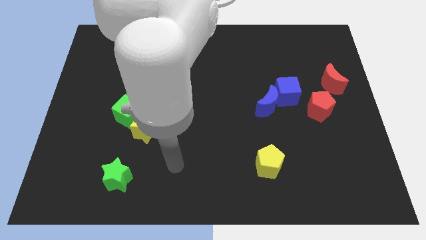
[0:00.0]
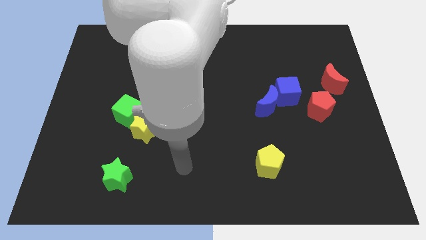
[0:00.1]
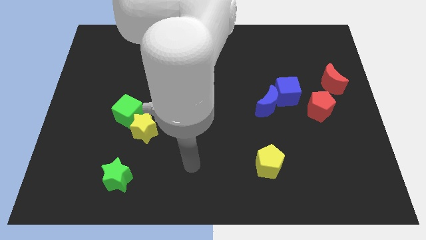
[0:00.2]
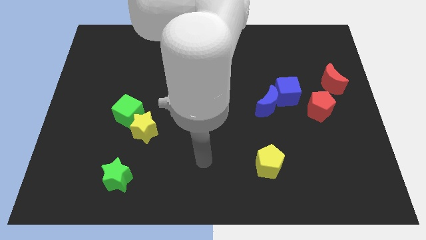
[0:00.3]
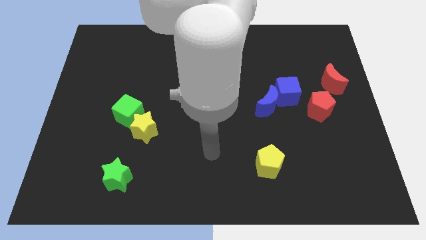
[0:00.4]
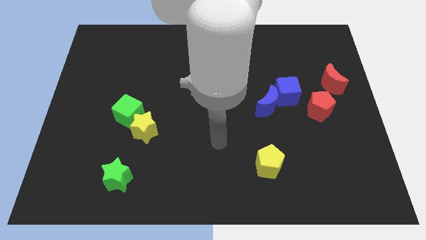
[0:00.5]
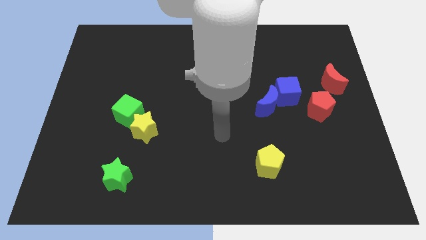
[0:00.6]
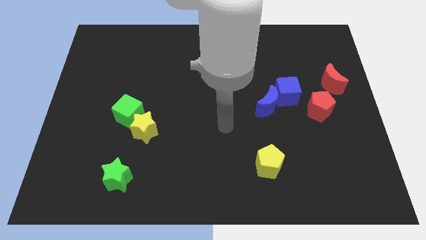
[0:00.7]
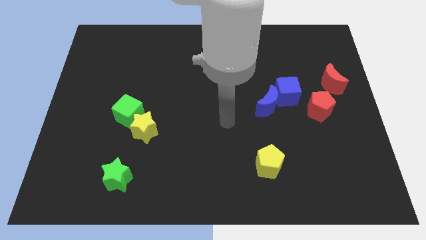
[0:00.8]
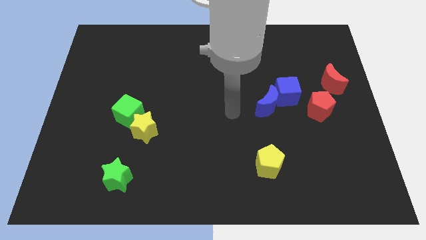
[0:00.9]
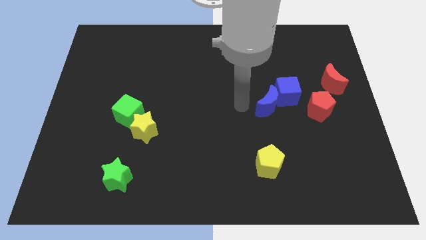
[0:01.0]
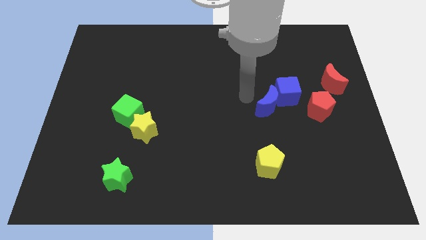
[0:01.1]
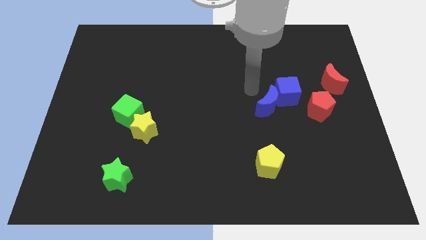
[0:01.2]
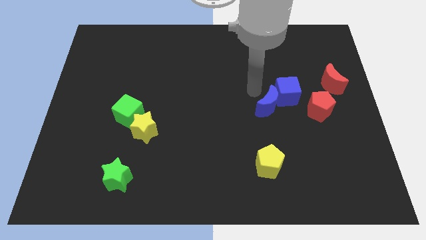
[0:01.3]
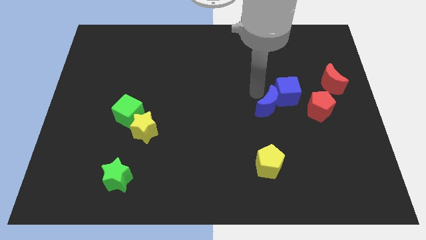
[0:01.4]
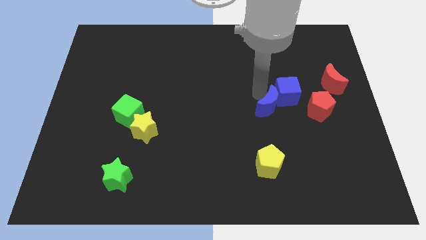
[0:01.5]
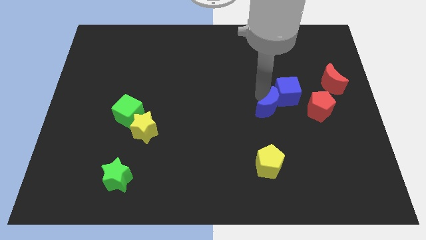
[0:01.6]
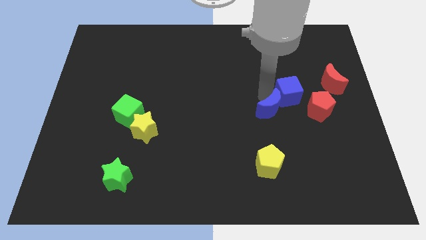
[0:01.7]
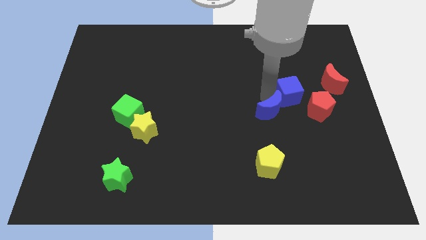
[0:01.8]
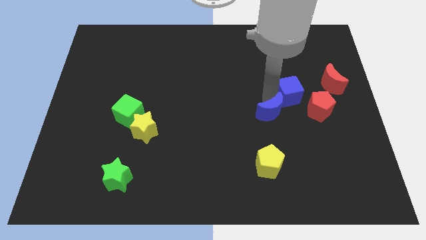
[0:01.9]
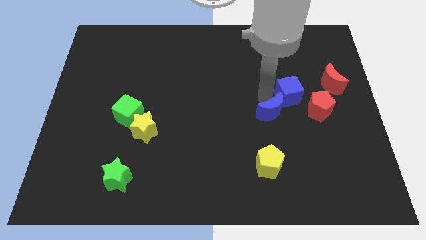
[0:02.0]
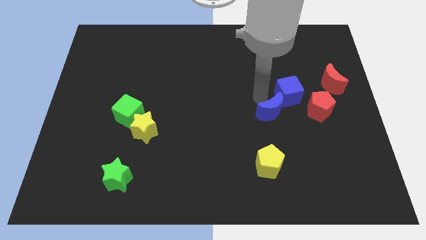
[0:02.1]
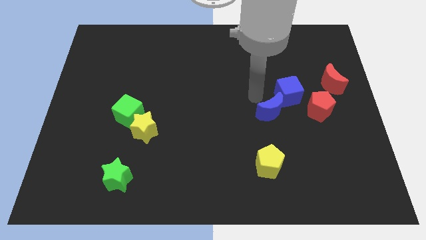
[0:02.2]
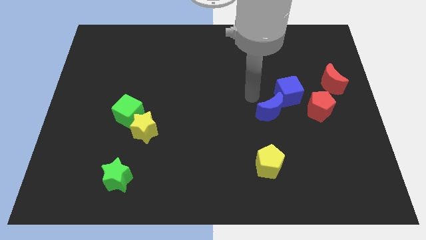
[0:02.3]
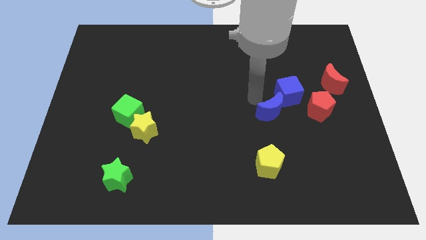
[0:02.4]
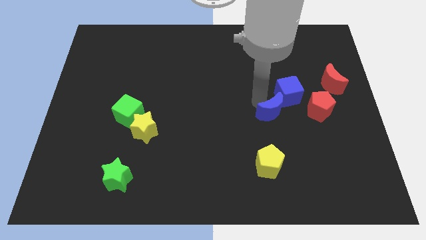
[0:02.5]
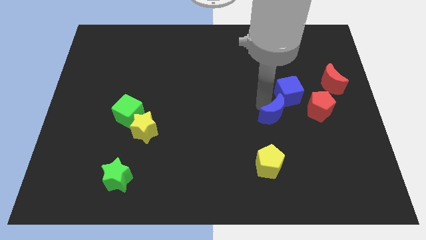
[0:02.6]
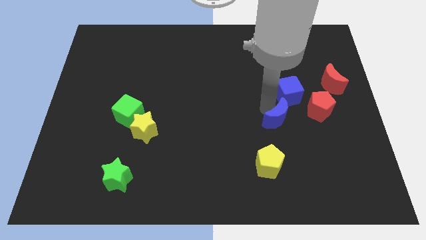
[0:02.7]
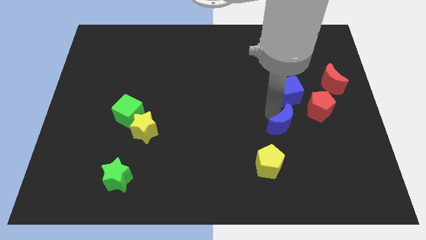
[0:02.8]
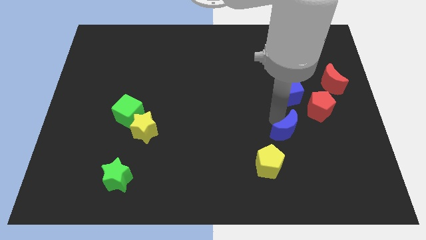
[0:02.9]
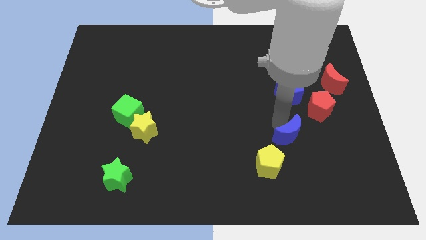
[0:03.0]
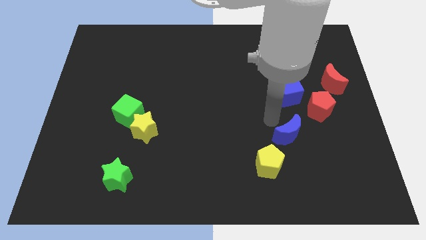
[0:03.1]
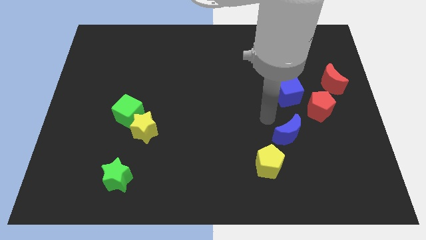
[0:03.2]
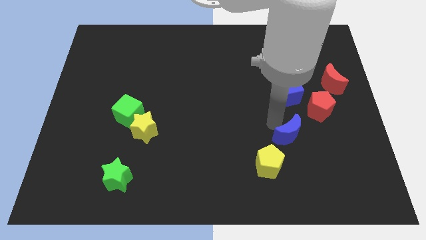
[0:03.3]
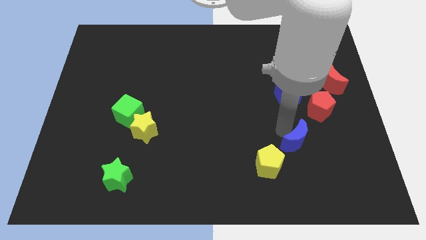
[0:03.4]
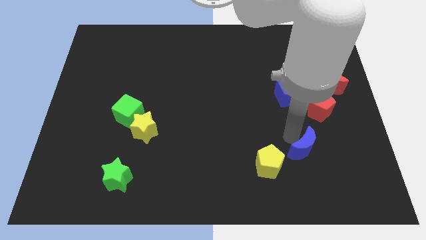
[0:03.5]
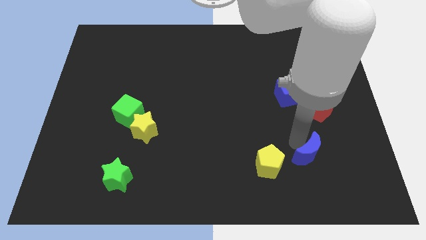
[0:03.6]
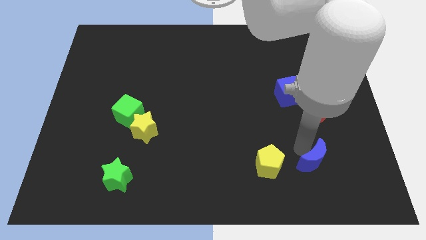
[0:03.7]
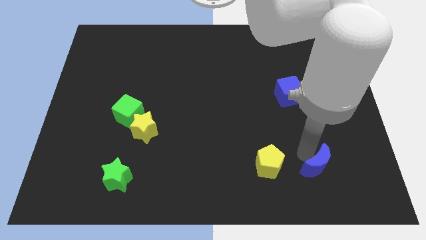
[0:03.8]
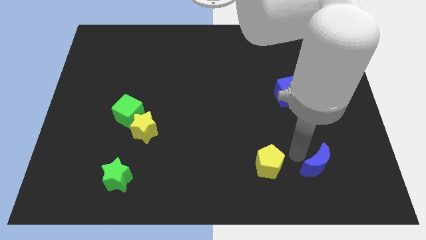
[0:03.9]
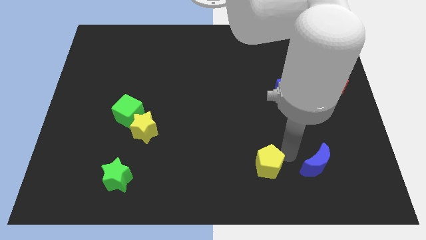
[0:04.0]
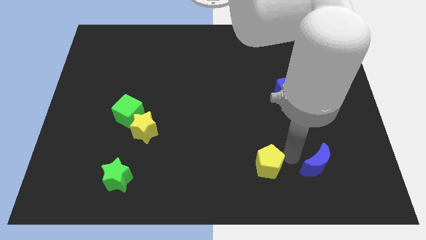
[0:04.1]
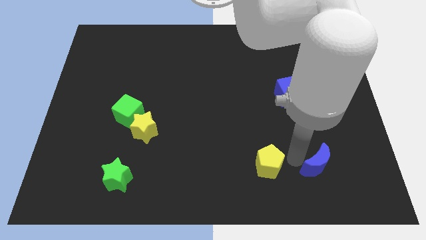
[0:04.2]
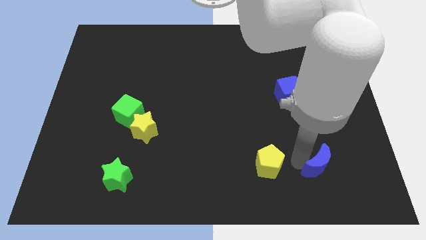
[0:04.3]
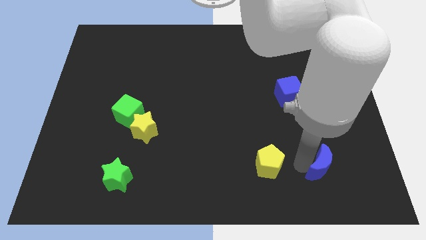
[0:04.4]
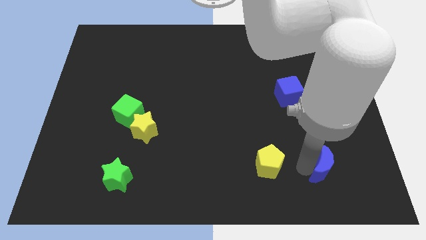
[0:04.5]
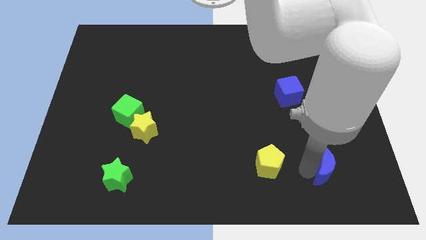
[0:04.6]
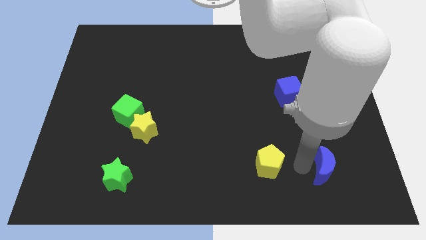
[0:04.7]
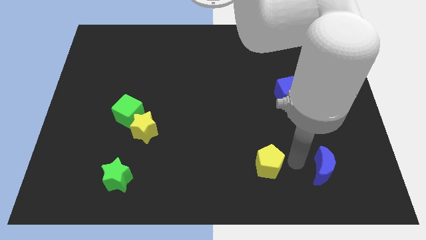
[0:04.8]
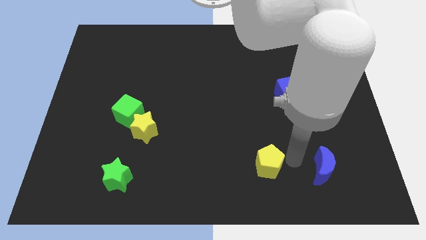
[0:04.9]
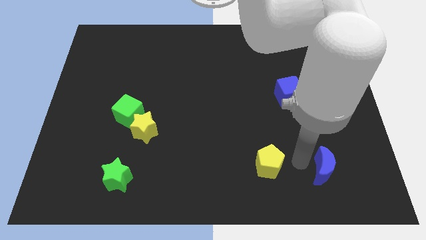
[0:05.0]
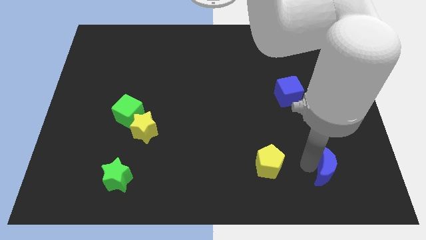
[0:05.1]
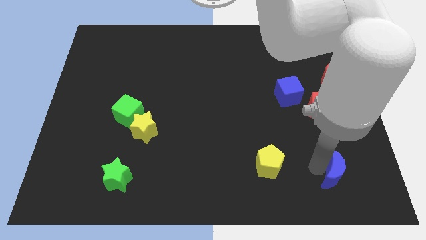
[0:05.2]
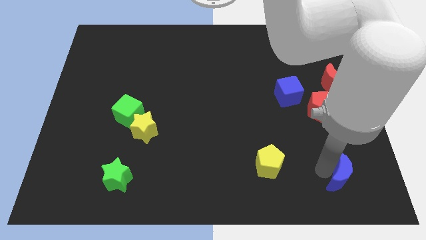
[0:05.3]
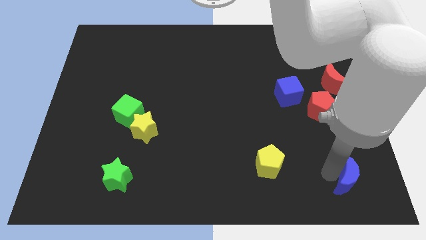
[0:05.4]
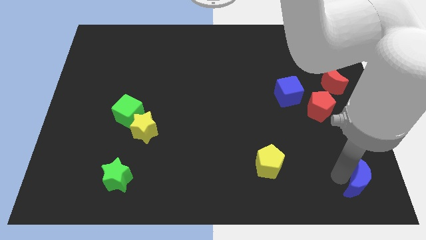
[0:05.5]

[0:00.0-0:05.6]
put the blue moon to the bottom right corner

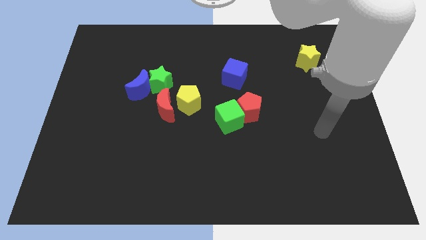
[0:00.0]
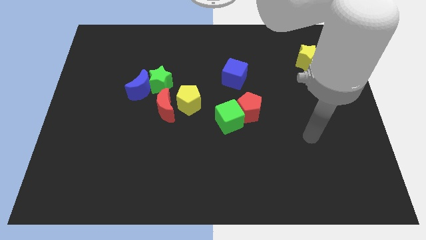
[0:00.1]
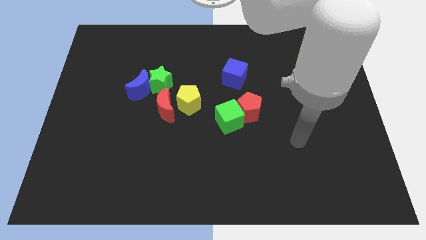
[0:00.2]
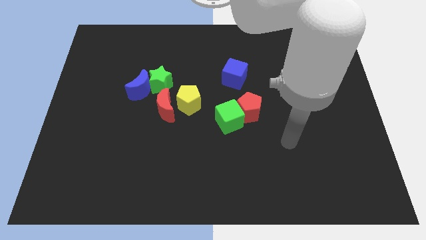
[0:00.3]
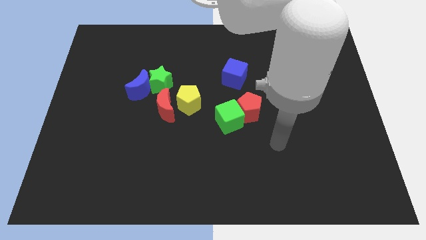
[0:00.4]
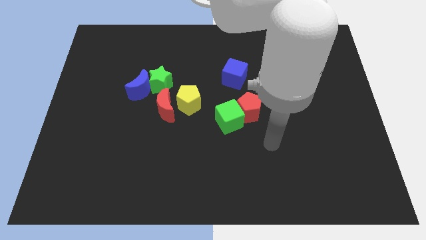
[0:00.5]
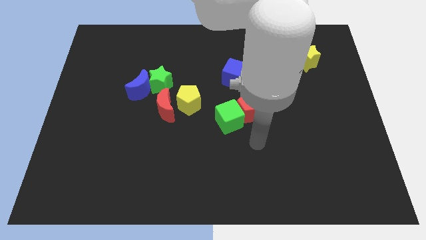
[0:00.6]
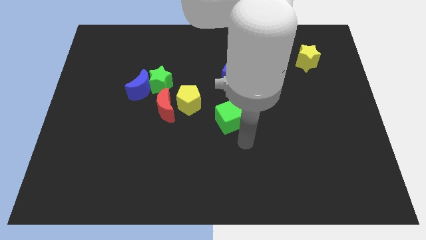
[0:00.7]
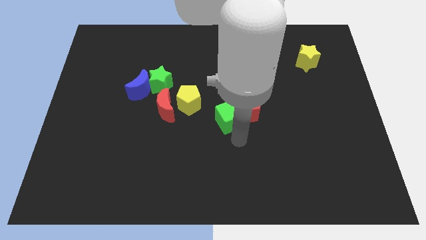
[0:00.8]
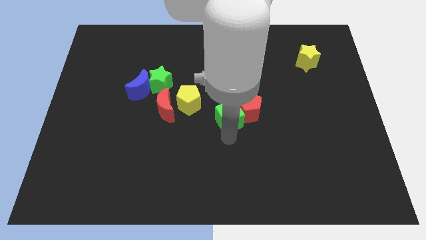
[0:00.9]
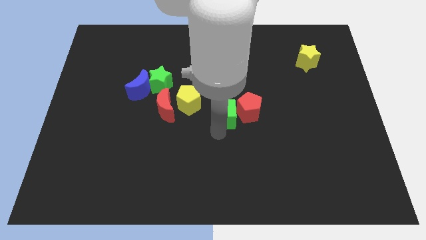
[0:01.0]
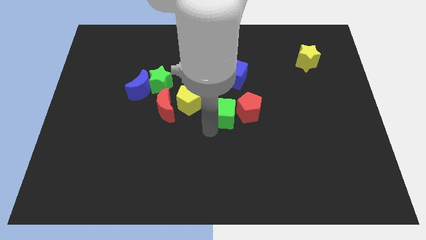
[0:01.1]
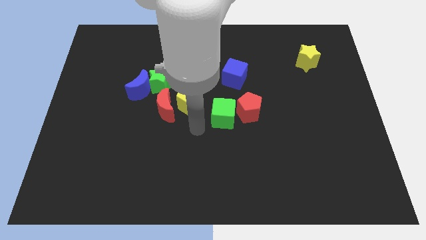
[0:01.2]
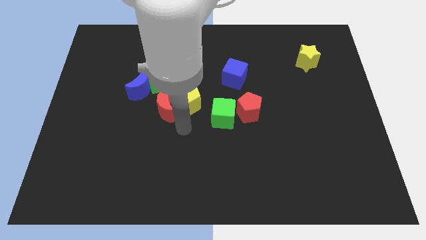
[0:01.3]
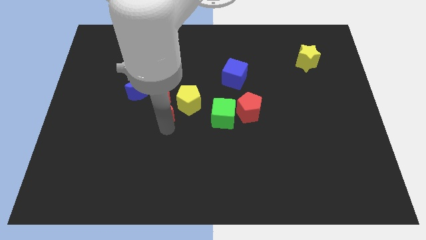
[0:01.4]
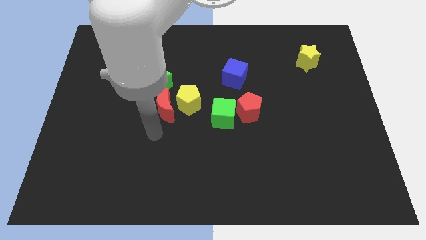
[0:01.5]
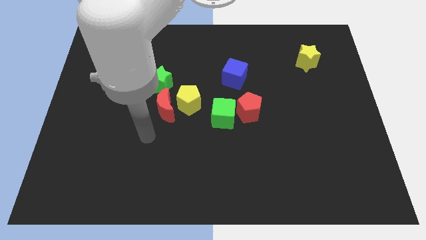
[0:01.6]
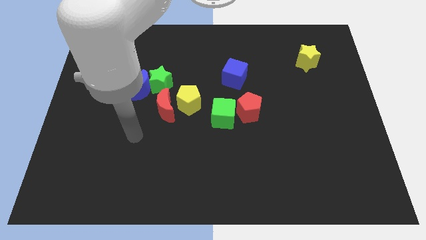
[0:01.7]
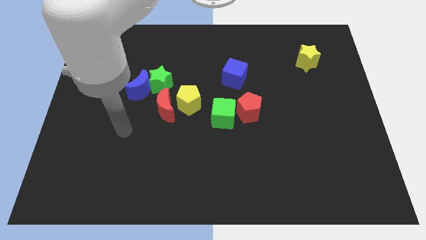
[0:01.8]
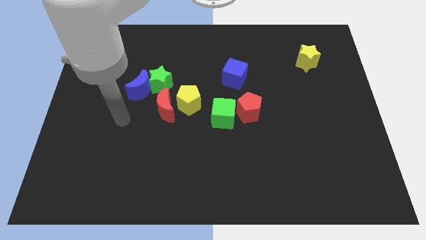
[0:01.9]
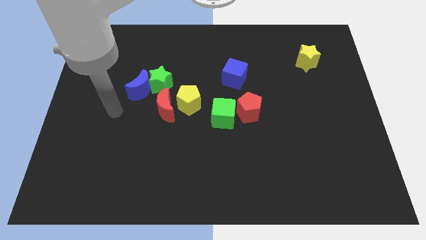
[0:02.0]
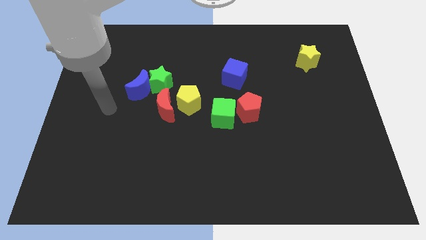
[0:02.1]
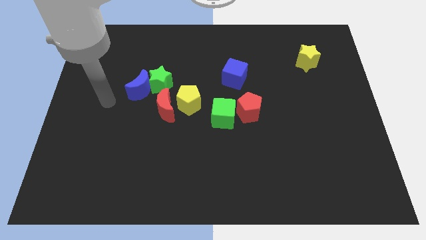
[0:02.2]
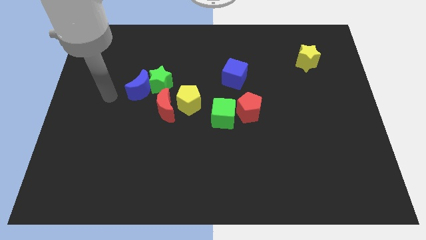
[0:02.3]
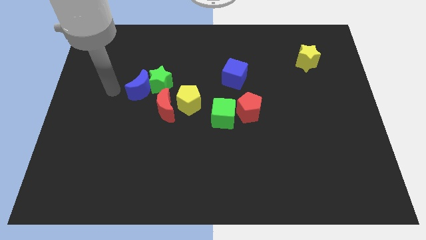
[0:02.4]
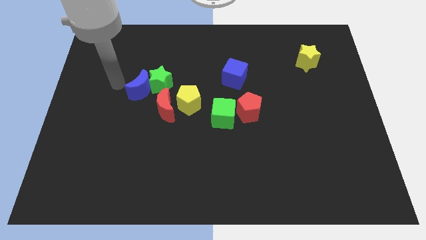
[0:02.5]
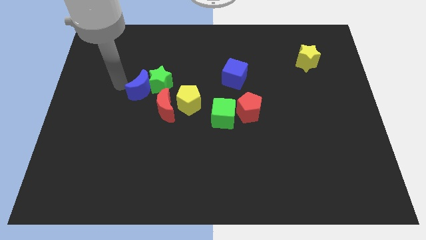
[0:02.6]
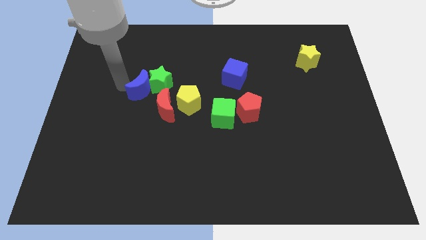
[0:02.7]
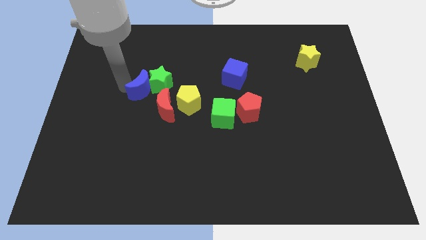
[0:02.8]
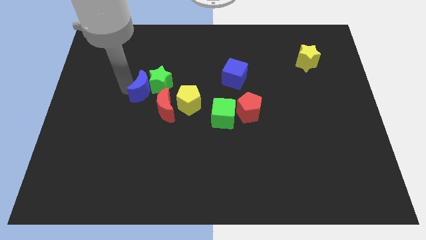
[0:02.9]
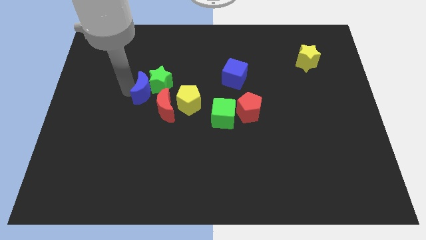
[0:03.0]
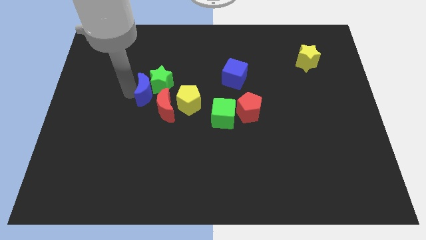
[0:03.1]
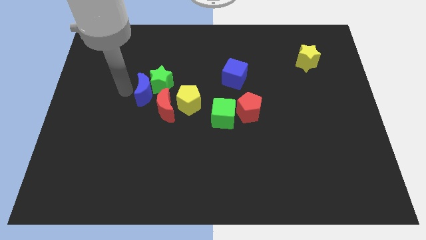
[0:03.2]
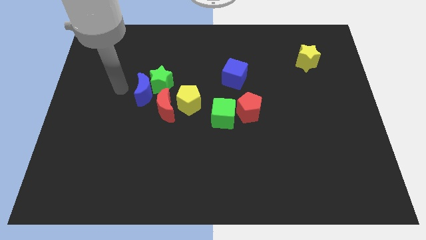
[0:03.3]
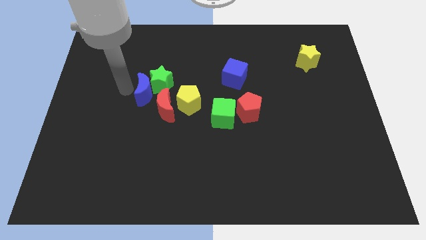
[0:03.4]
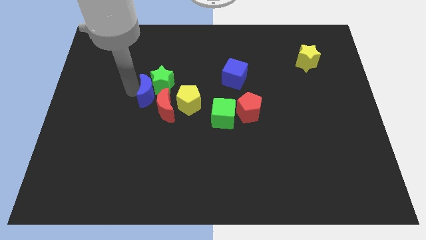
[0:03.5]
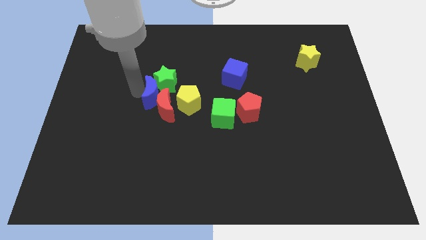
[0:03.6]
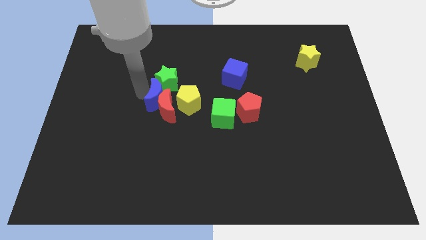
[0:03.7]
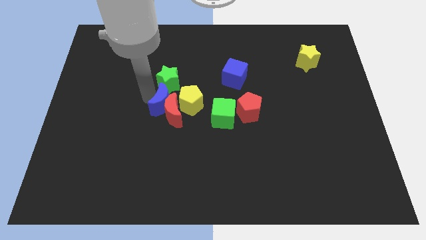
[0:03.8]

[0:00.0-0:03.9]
move the blue moon to the middle of the board
